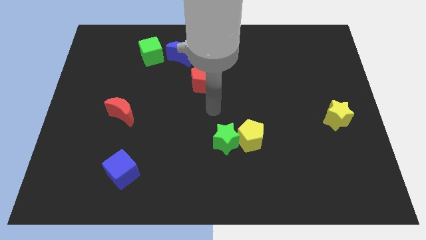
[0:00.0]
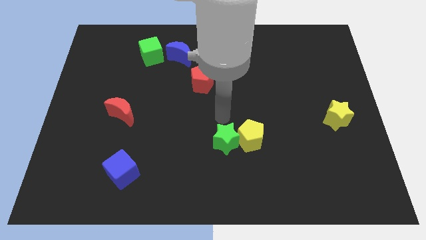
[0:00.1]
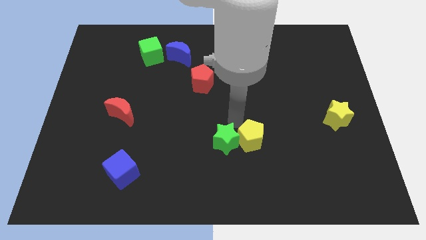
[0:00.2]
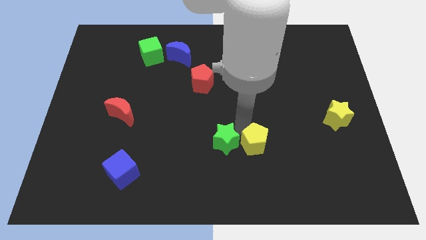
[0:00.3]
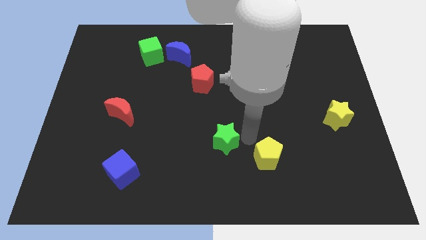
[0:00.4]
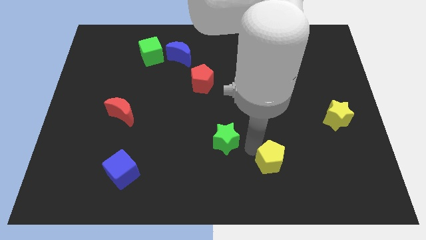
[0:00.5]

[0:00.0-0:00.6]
move the green star away from the yellow pentagon

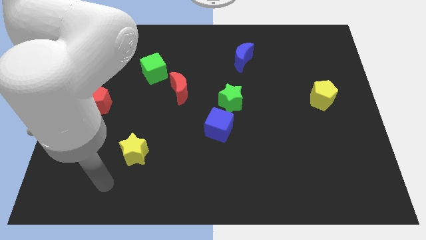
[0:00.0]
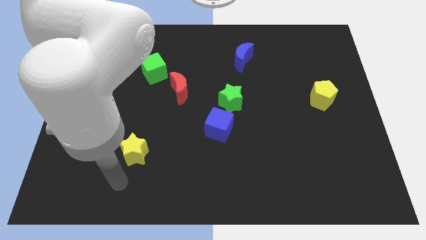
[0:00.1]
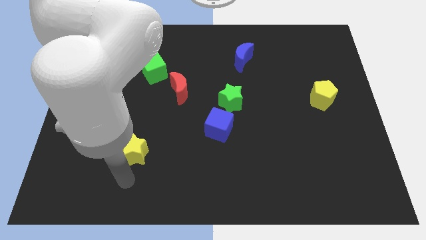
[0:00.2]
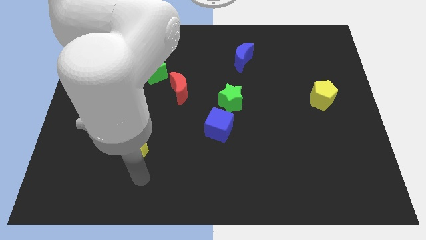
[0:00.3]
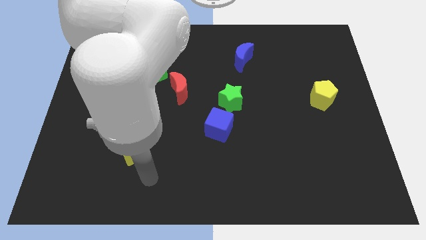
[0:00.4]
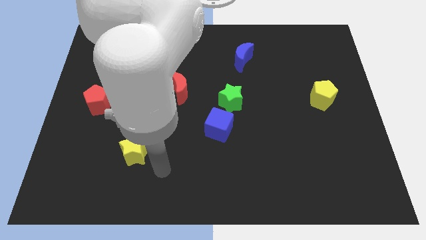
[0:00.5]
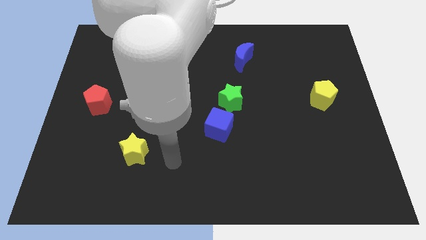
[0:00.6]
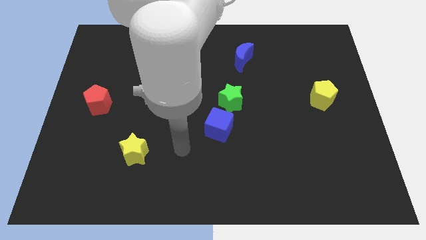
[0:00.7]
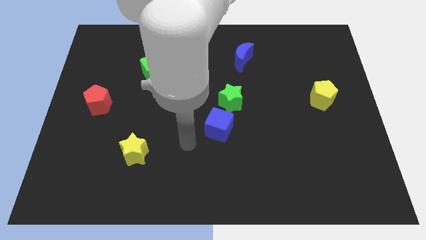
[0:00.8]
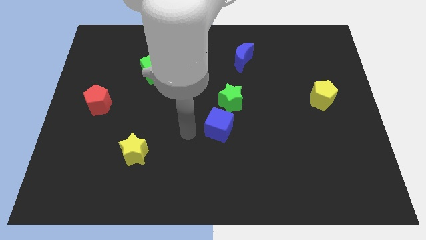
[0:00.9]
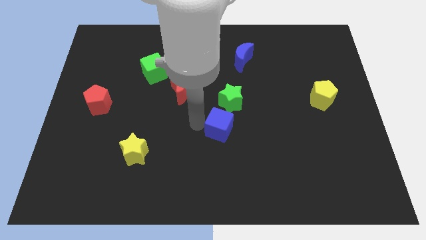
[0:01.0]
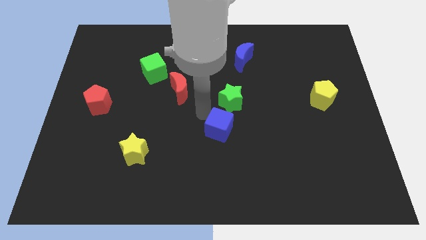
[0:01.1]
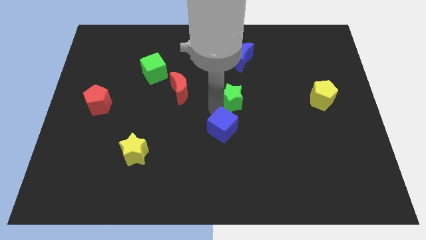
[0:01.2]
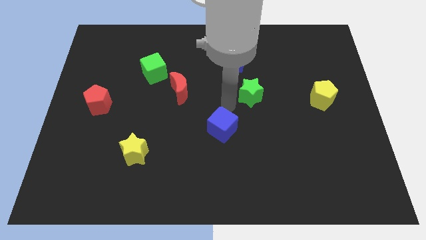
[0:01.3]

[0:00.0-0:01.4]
separate the blue cube from the green star

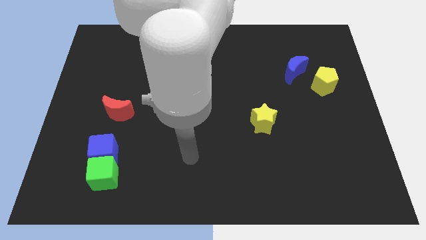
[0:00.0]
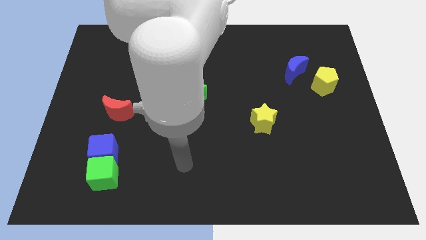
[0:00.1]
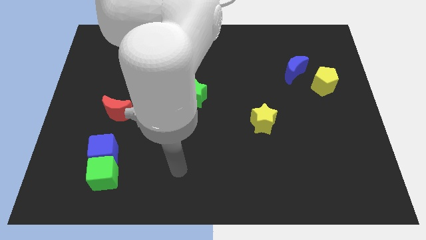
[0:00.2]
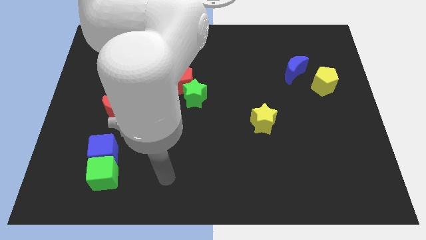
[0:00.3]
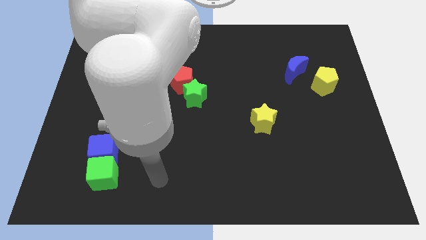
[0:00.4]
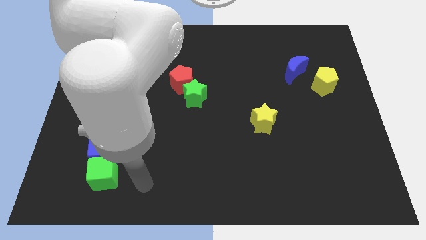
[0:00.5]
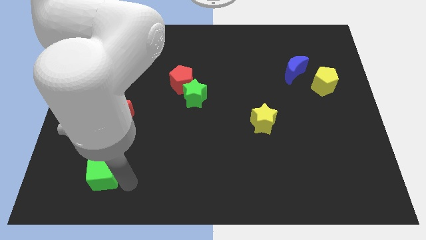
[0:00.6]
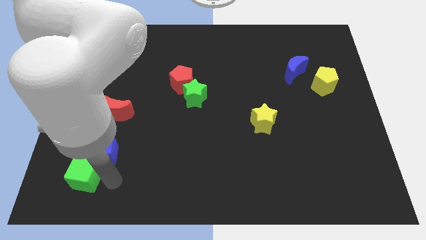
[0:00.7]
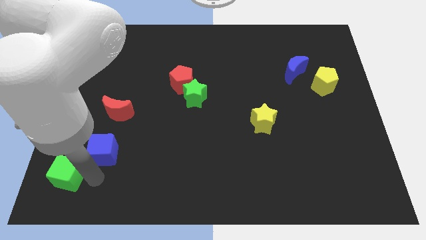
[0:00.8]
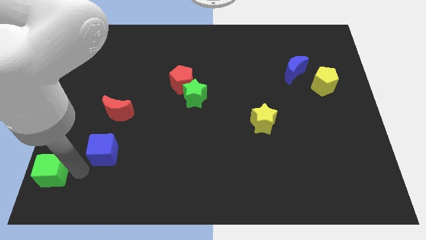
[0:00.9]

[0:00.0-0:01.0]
separate the blue cube from the green cube

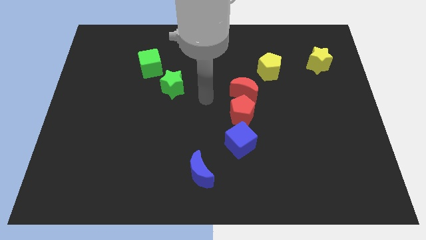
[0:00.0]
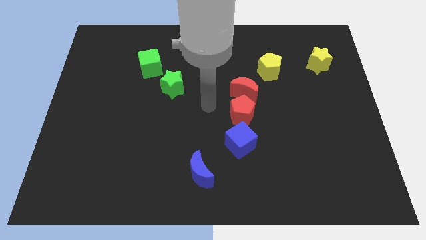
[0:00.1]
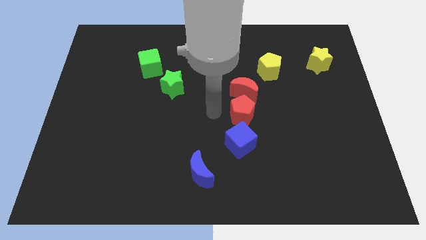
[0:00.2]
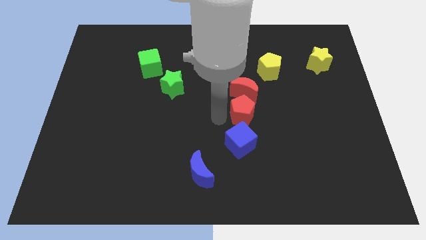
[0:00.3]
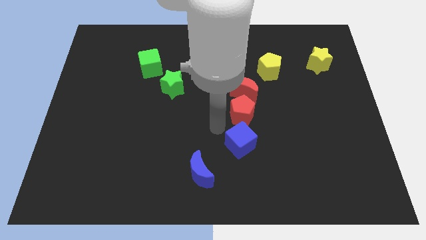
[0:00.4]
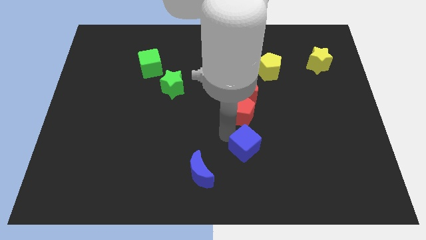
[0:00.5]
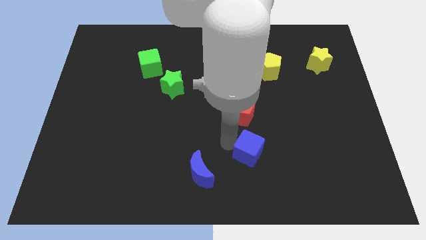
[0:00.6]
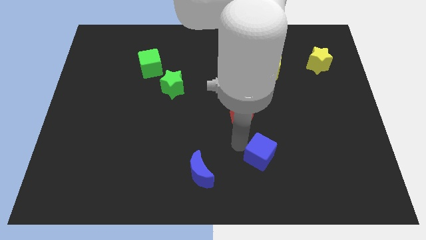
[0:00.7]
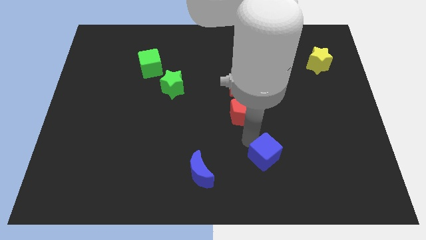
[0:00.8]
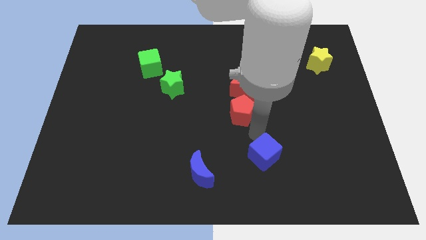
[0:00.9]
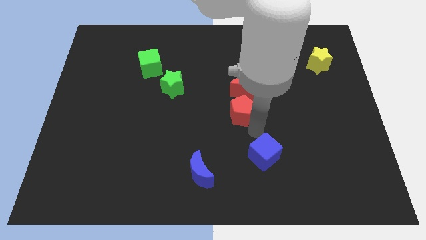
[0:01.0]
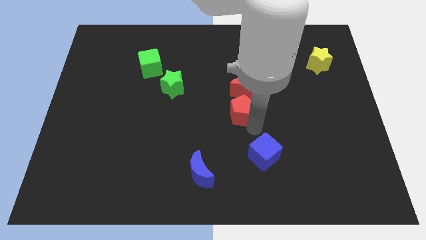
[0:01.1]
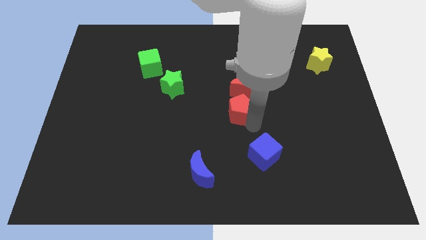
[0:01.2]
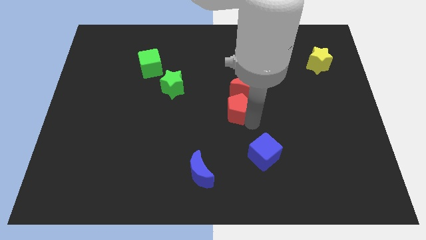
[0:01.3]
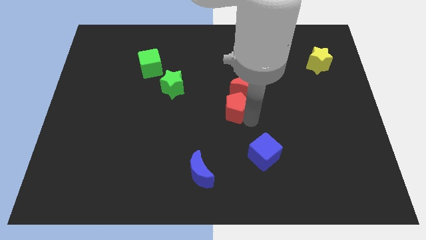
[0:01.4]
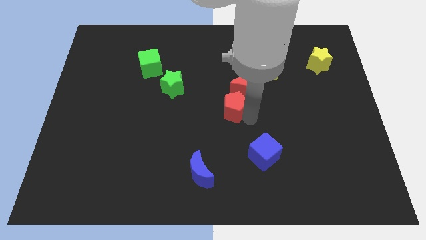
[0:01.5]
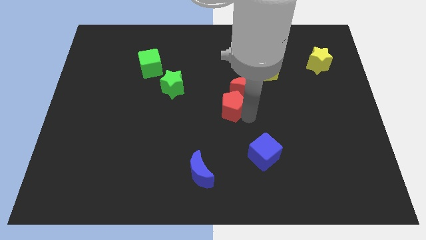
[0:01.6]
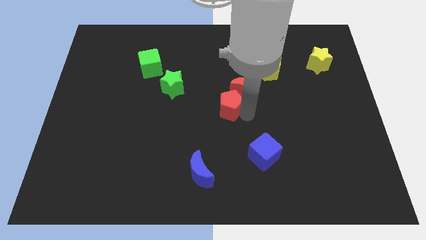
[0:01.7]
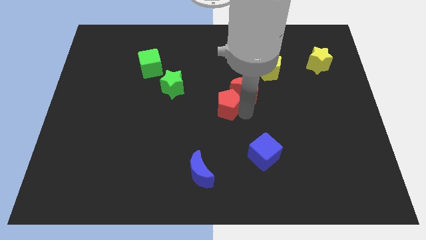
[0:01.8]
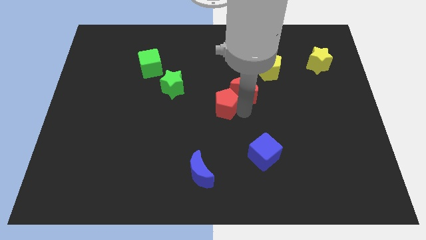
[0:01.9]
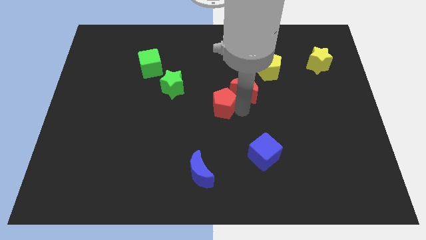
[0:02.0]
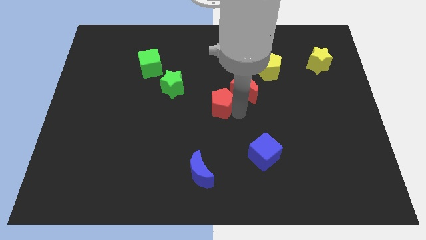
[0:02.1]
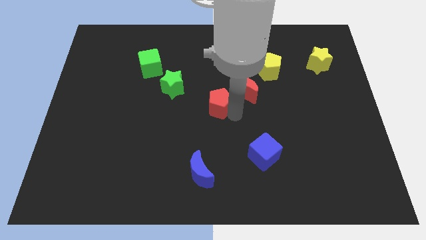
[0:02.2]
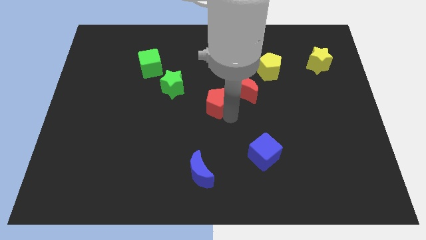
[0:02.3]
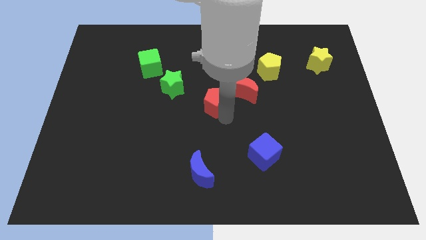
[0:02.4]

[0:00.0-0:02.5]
move the red pentagon away from the red moon and blue cube

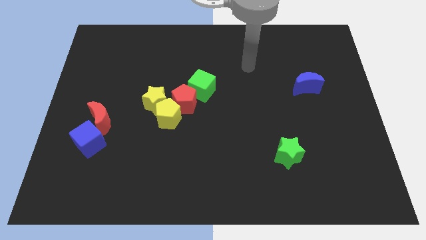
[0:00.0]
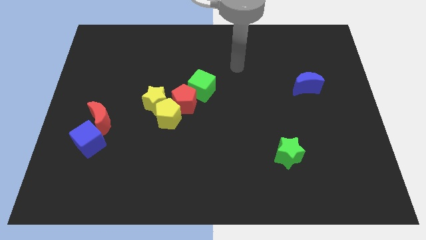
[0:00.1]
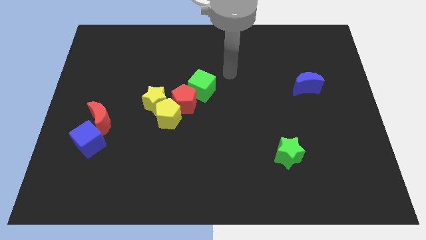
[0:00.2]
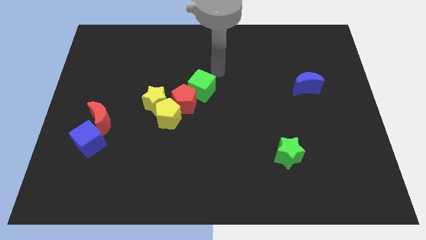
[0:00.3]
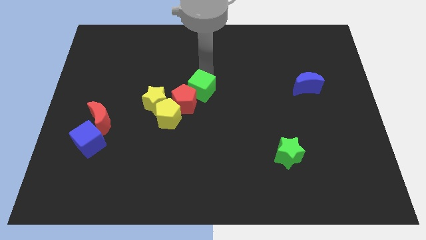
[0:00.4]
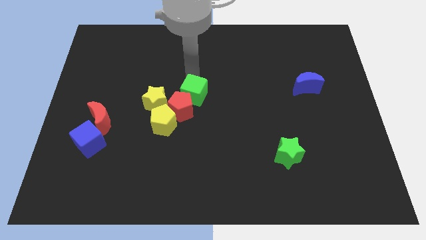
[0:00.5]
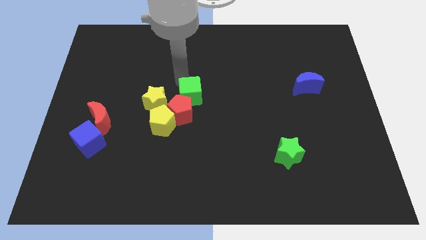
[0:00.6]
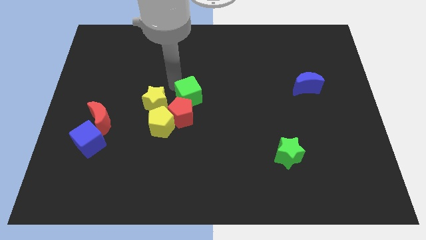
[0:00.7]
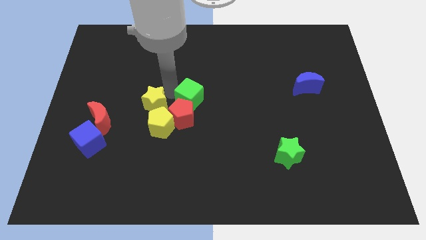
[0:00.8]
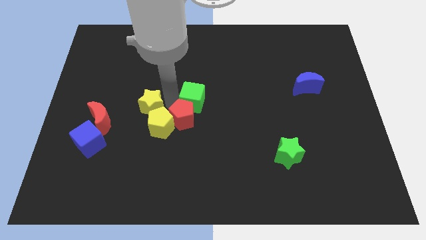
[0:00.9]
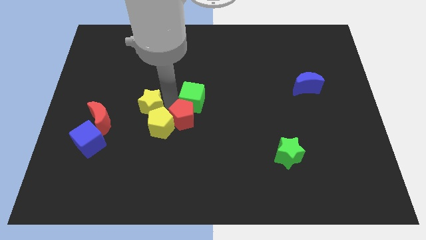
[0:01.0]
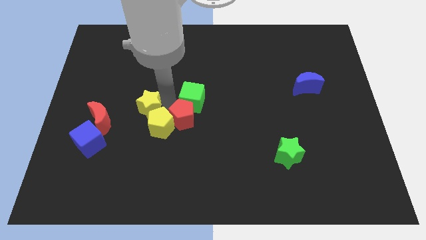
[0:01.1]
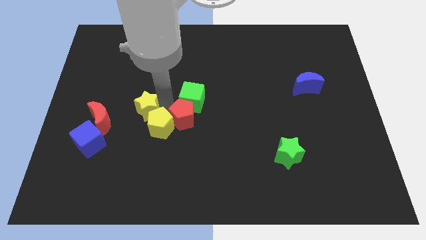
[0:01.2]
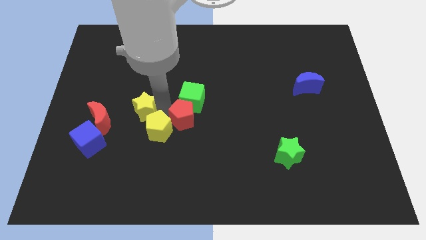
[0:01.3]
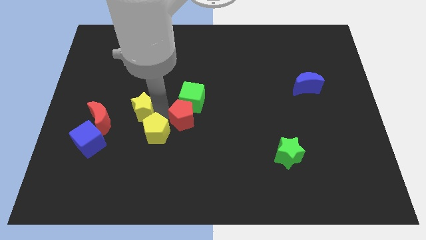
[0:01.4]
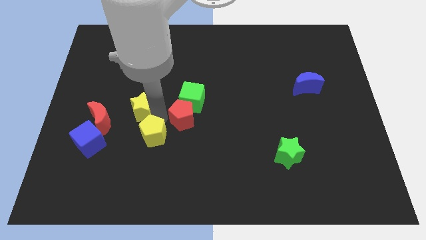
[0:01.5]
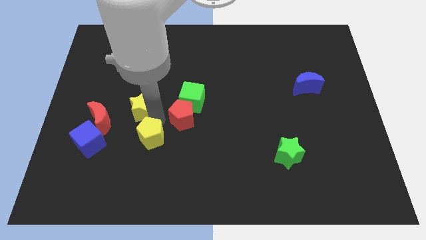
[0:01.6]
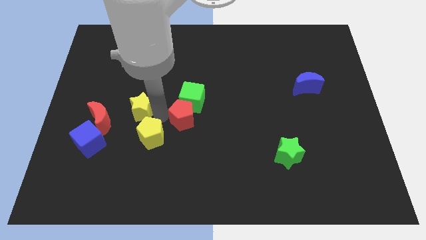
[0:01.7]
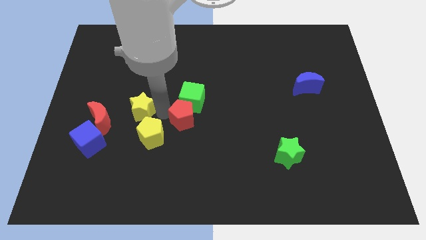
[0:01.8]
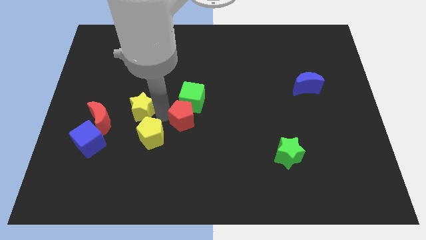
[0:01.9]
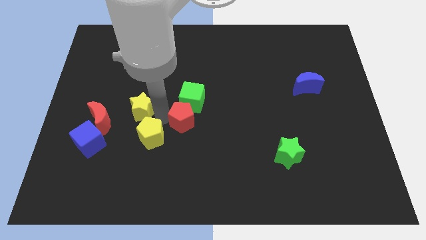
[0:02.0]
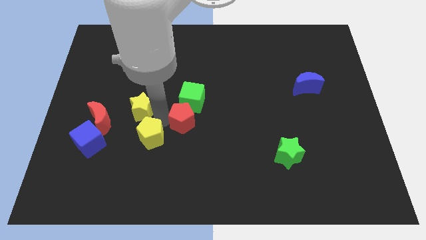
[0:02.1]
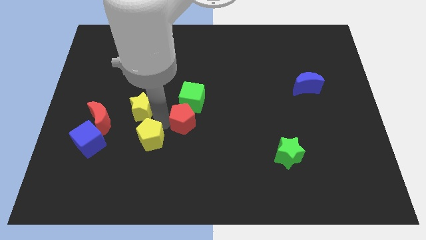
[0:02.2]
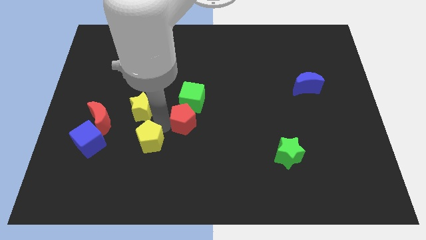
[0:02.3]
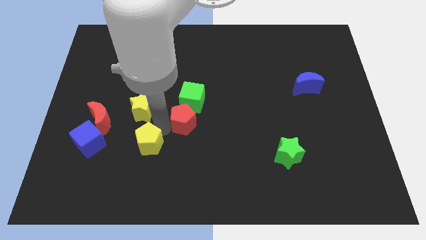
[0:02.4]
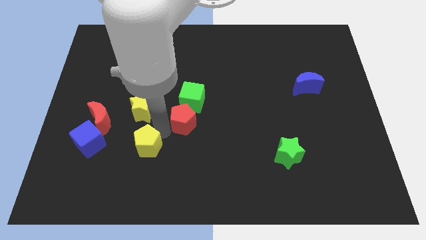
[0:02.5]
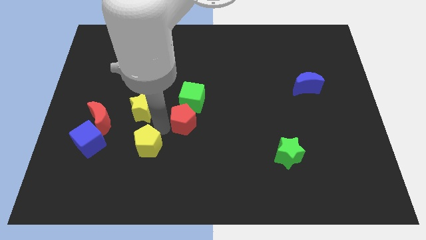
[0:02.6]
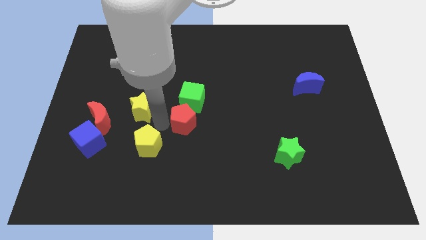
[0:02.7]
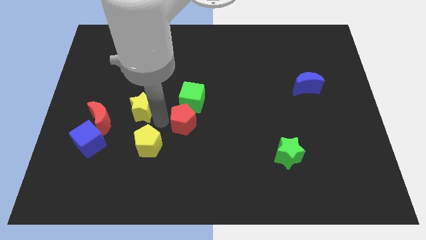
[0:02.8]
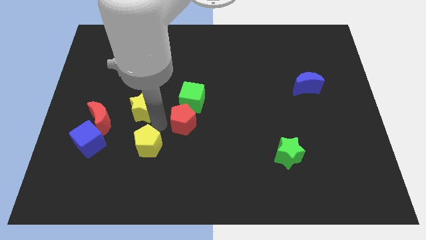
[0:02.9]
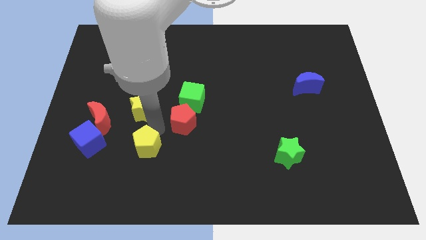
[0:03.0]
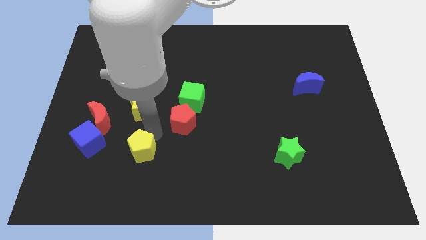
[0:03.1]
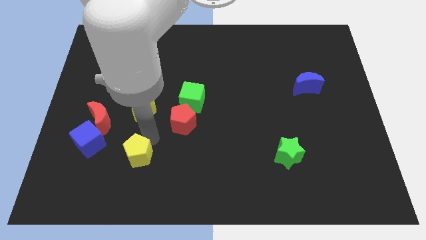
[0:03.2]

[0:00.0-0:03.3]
move the yellow pentagon away from the yellow star and red pentagon

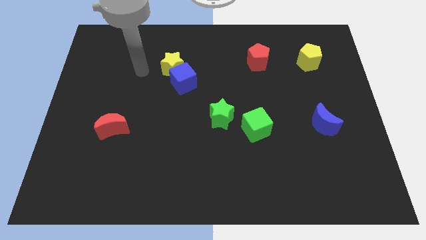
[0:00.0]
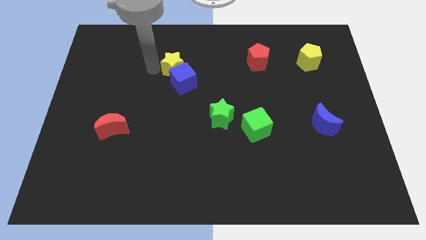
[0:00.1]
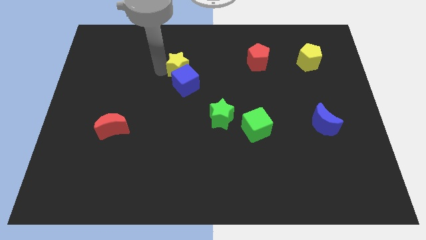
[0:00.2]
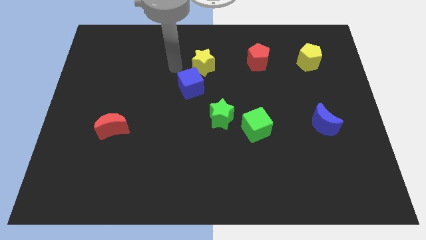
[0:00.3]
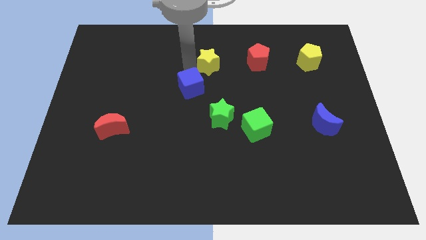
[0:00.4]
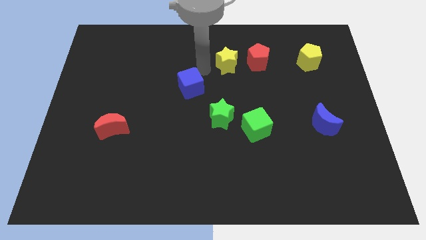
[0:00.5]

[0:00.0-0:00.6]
separate the blue cube from the yellow star
